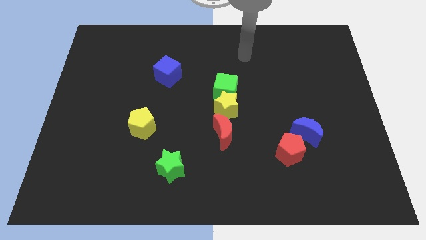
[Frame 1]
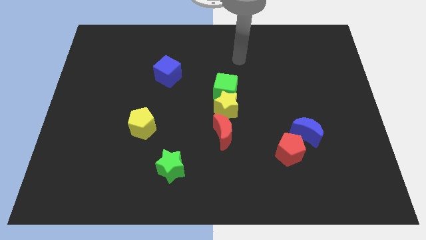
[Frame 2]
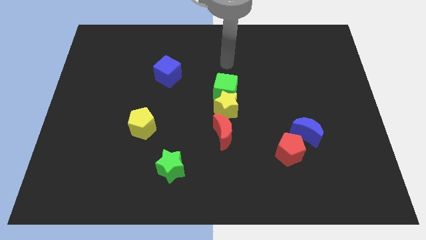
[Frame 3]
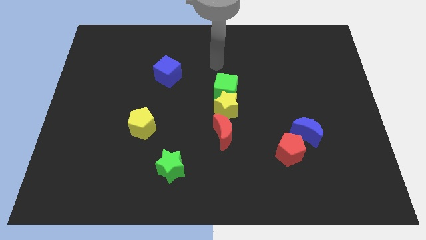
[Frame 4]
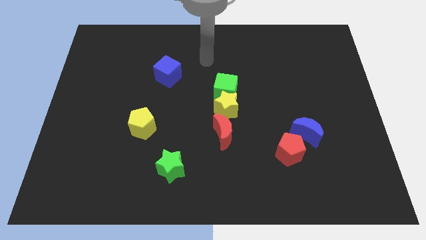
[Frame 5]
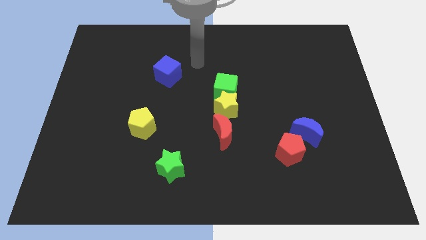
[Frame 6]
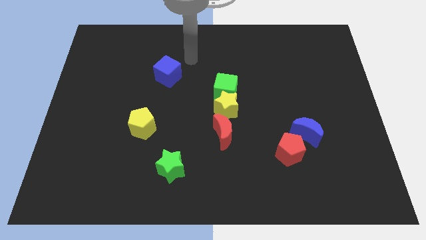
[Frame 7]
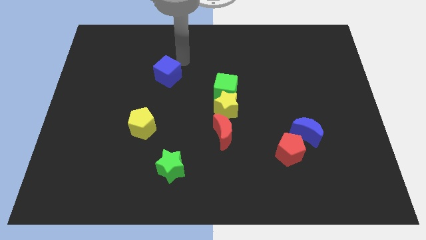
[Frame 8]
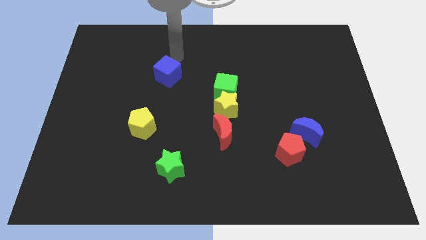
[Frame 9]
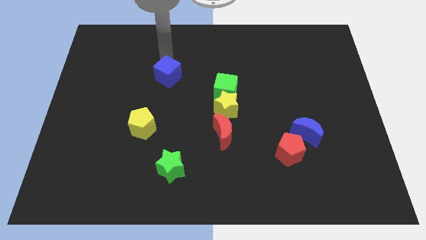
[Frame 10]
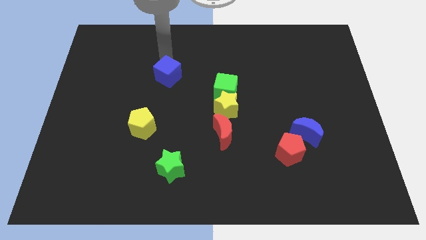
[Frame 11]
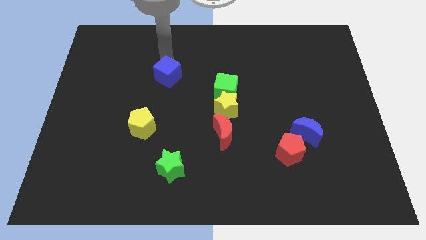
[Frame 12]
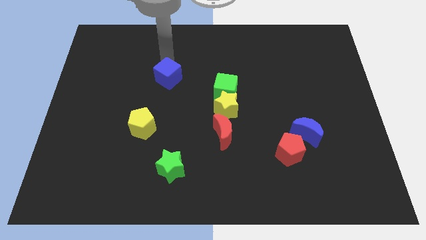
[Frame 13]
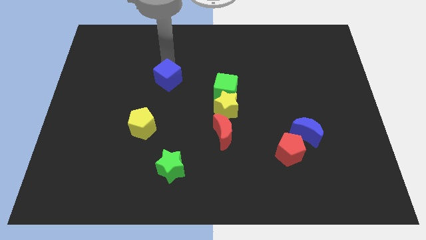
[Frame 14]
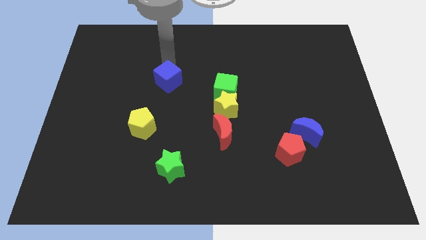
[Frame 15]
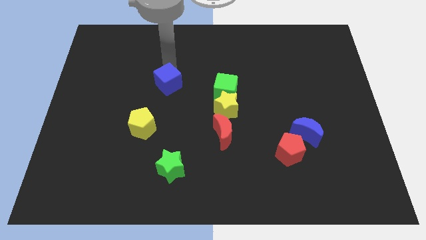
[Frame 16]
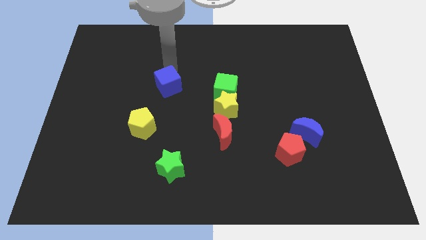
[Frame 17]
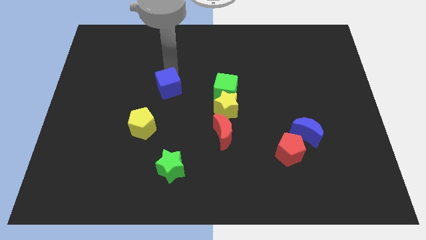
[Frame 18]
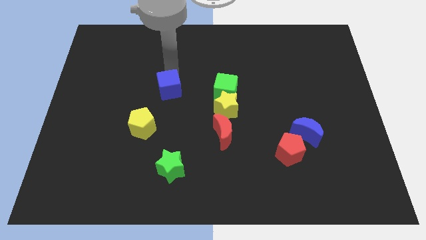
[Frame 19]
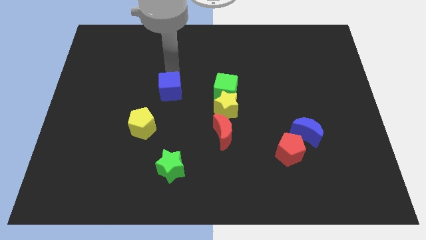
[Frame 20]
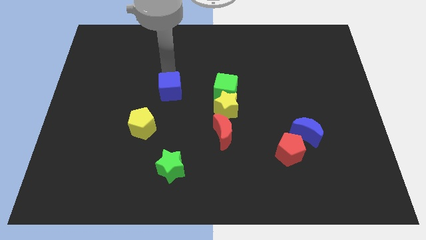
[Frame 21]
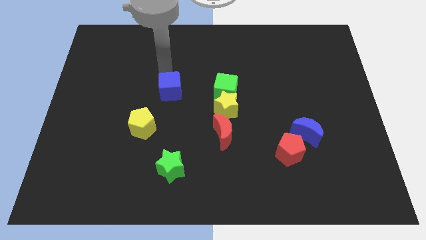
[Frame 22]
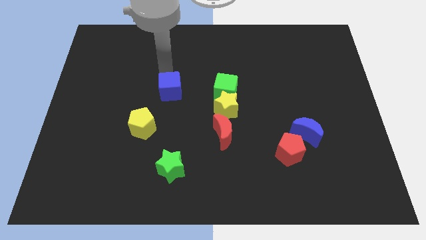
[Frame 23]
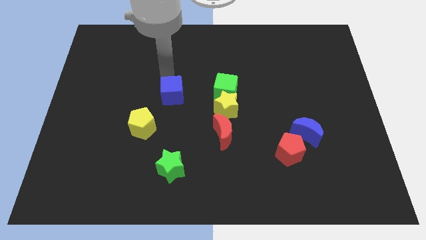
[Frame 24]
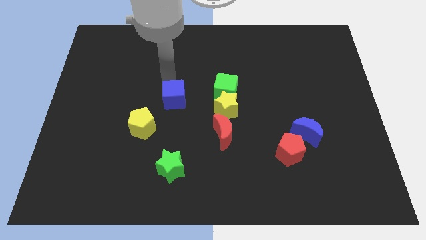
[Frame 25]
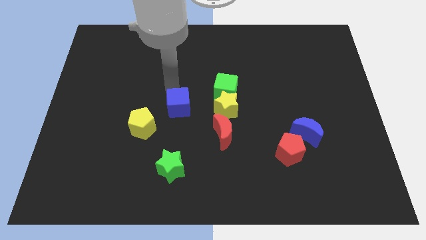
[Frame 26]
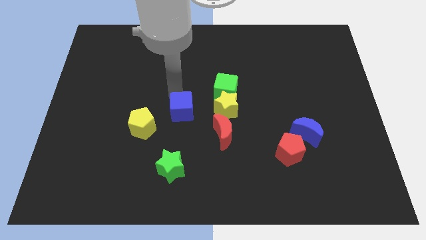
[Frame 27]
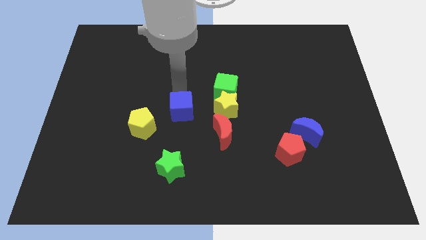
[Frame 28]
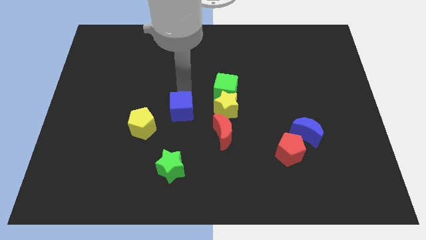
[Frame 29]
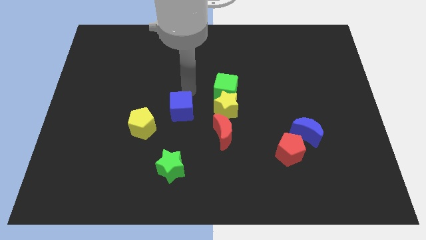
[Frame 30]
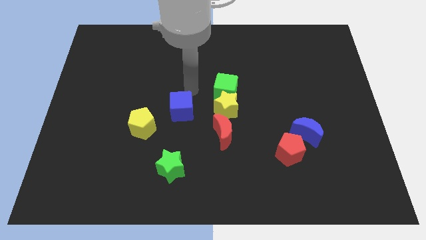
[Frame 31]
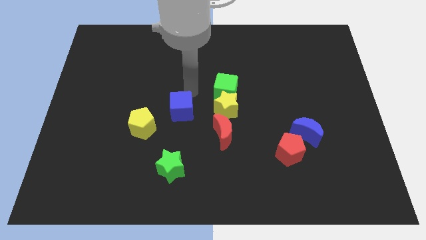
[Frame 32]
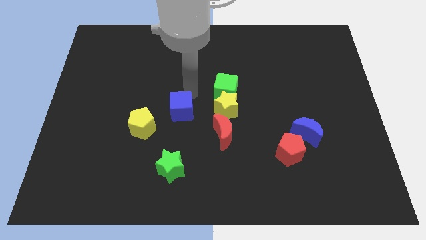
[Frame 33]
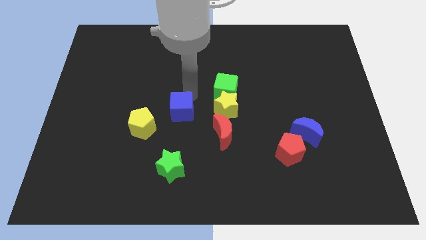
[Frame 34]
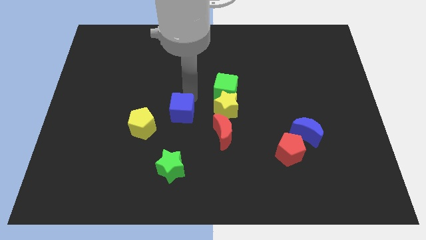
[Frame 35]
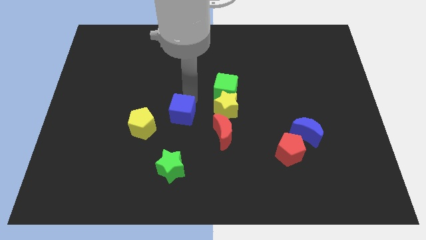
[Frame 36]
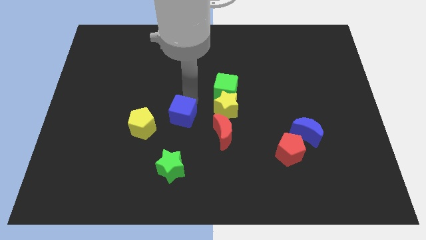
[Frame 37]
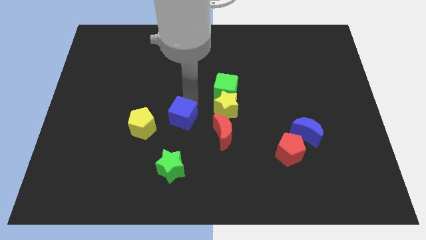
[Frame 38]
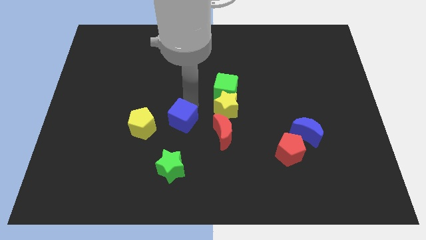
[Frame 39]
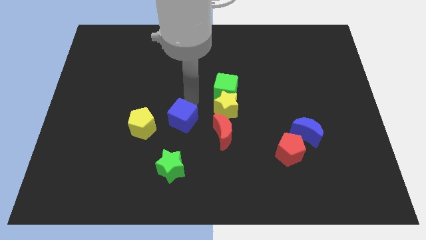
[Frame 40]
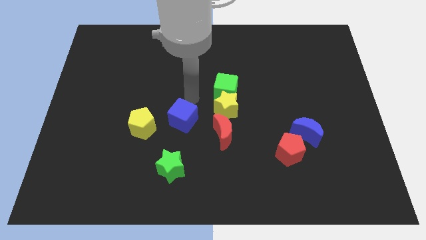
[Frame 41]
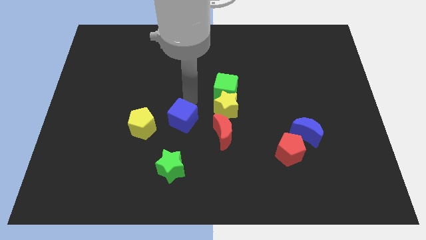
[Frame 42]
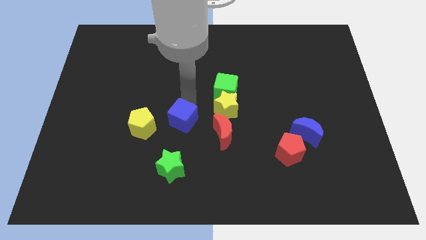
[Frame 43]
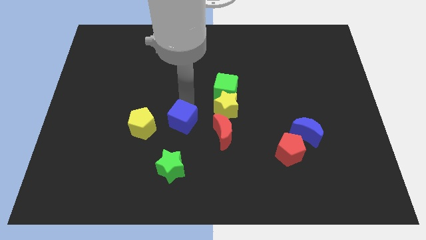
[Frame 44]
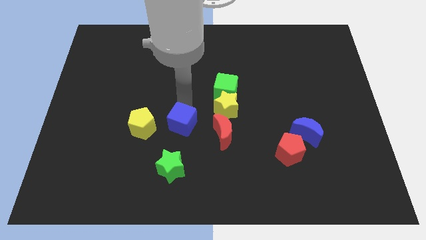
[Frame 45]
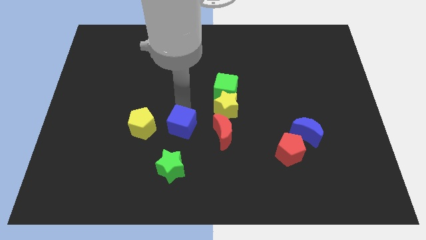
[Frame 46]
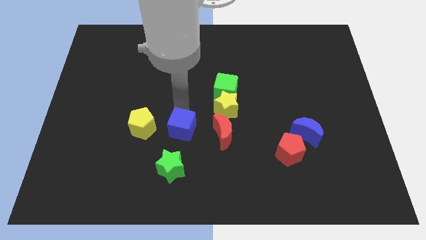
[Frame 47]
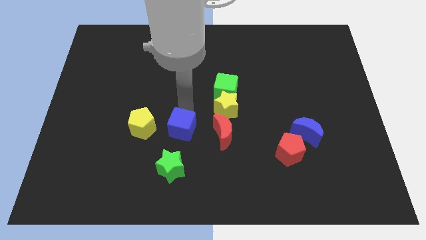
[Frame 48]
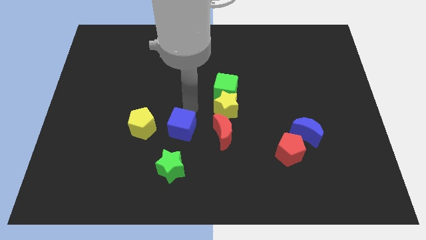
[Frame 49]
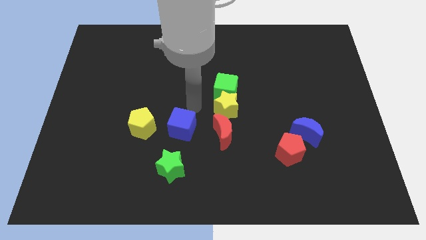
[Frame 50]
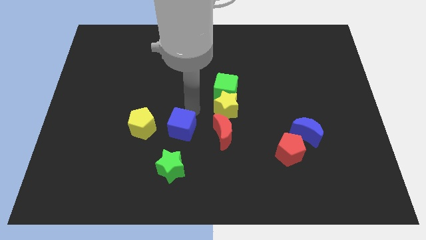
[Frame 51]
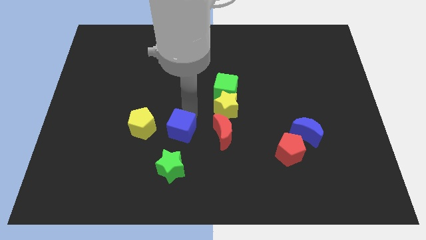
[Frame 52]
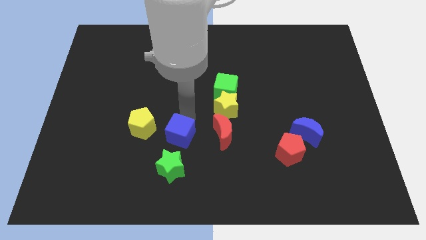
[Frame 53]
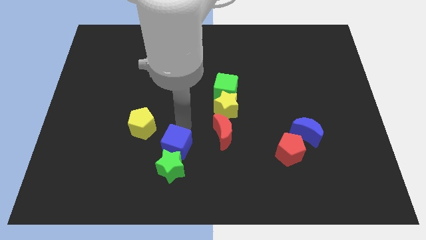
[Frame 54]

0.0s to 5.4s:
move the blue cube next to the green star

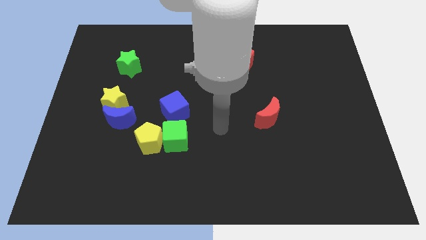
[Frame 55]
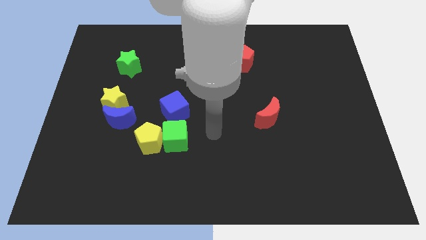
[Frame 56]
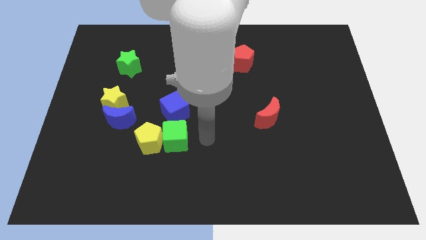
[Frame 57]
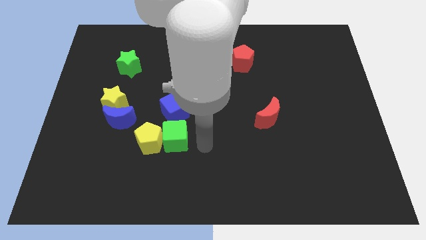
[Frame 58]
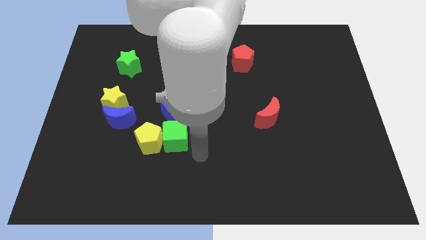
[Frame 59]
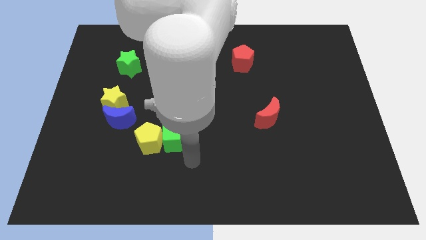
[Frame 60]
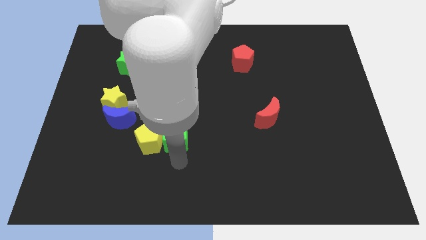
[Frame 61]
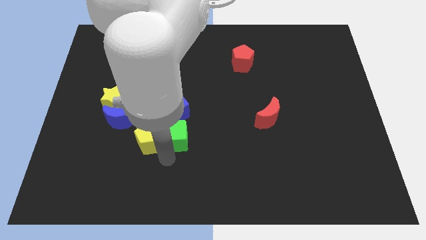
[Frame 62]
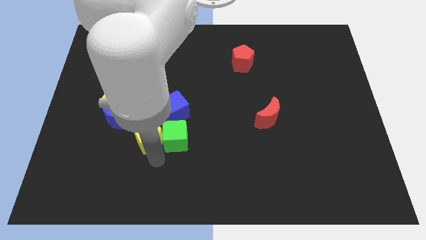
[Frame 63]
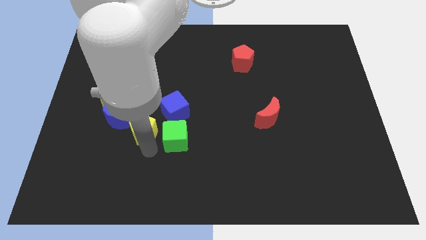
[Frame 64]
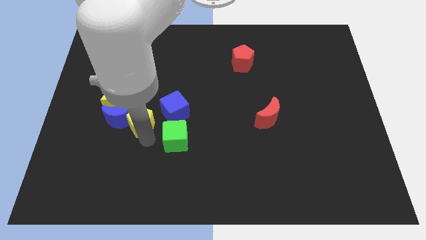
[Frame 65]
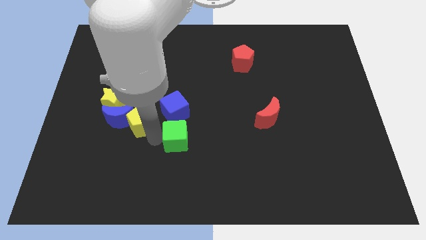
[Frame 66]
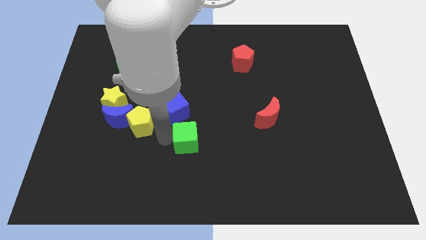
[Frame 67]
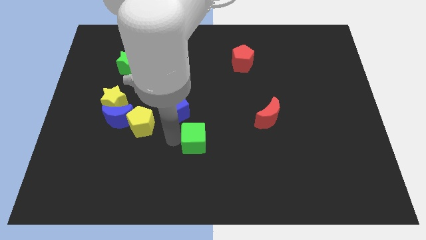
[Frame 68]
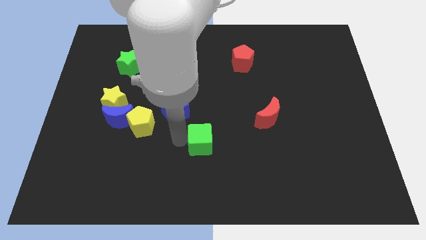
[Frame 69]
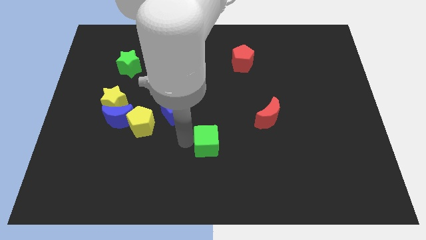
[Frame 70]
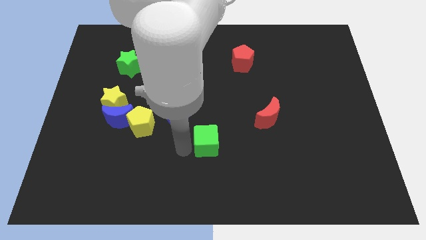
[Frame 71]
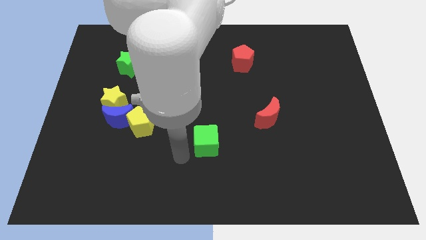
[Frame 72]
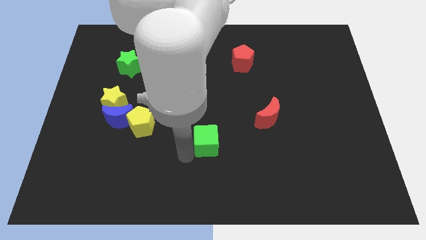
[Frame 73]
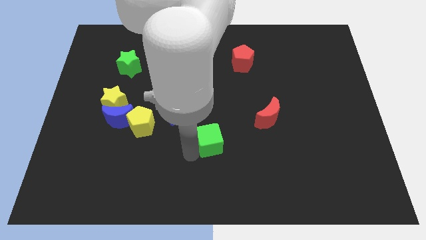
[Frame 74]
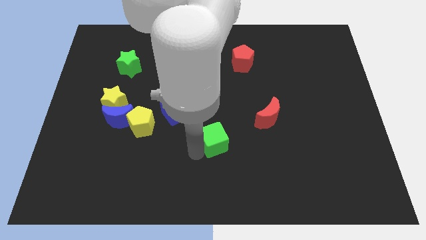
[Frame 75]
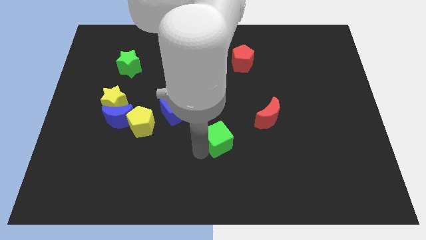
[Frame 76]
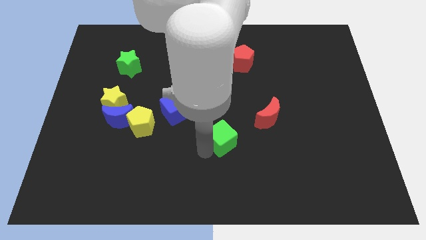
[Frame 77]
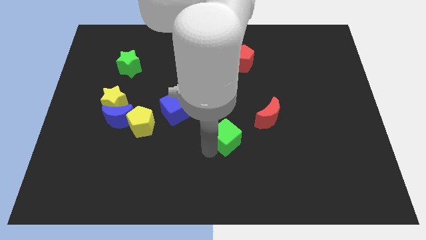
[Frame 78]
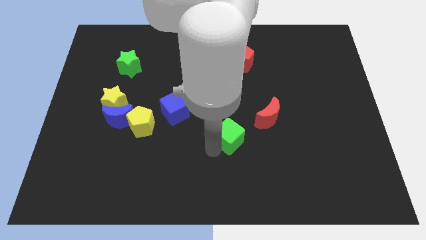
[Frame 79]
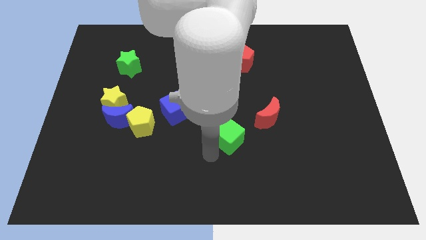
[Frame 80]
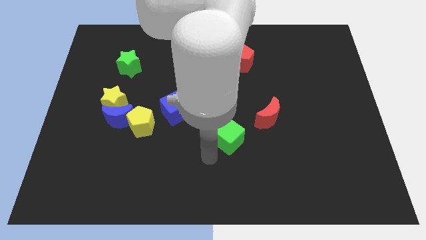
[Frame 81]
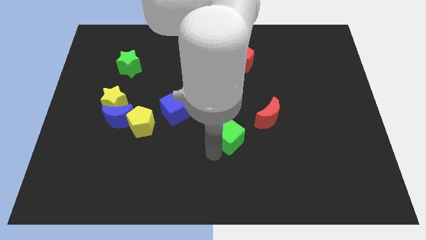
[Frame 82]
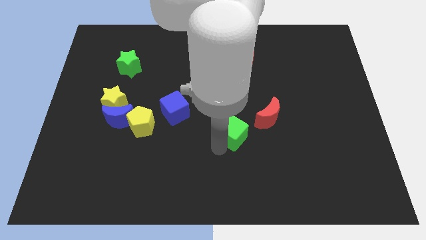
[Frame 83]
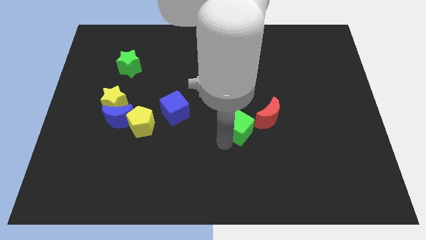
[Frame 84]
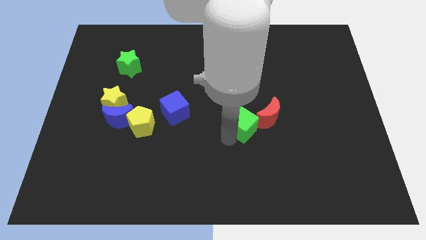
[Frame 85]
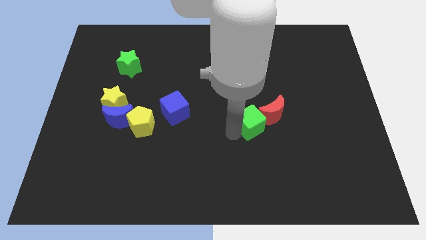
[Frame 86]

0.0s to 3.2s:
slide the green cube next to the red moon
